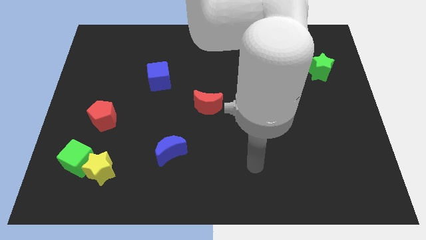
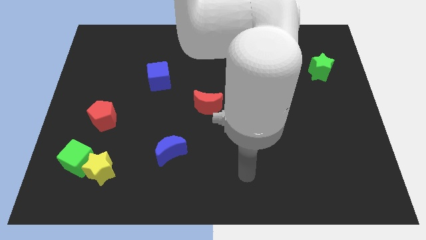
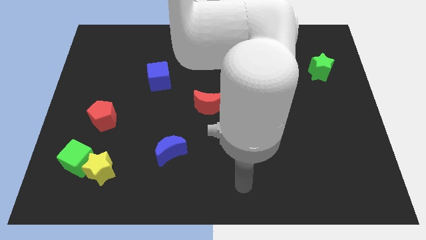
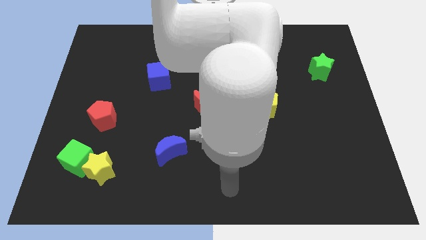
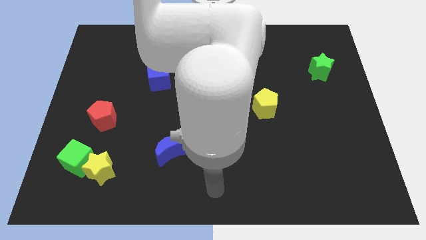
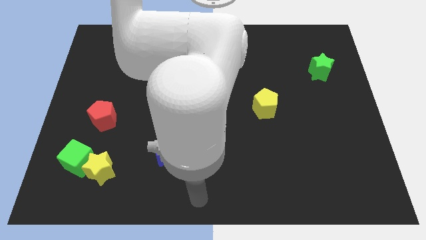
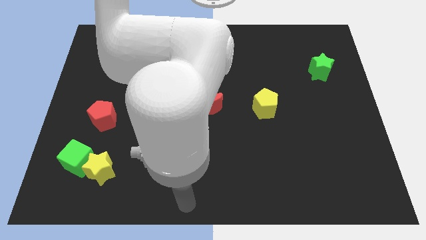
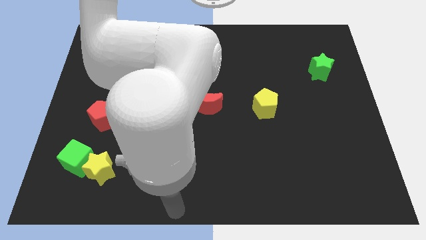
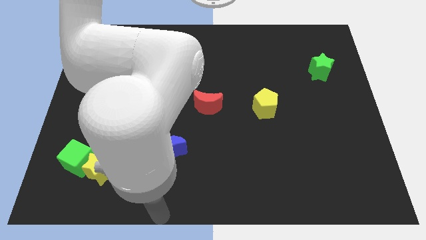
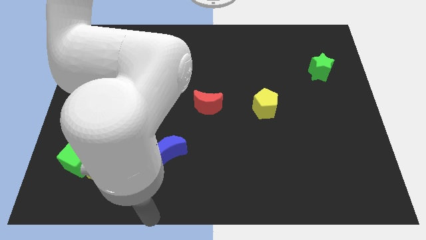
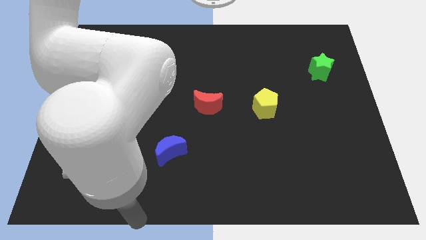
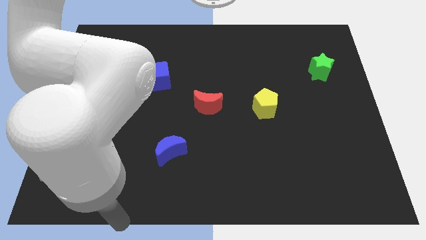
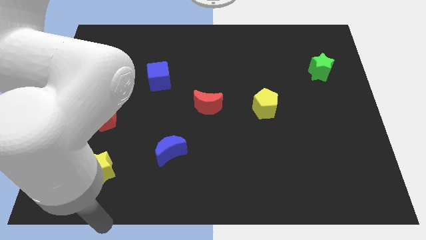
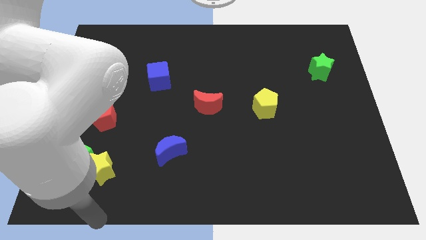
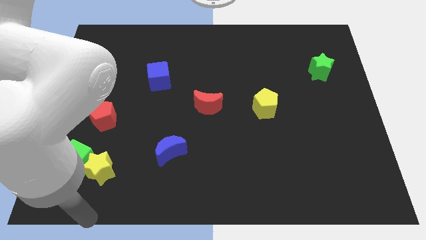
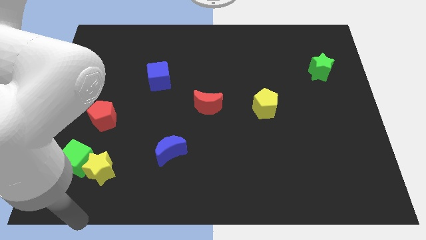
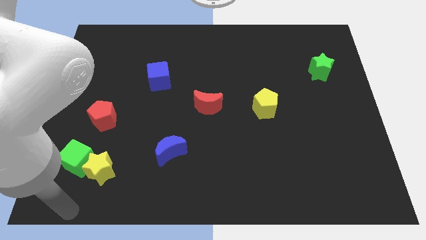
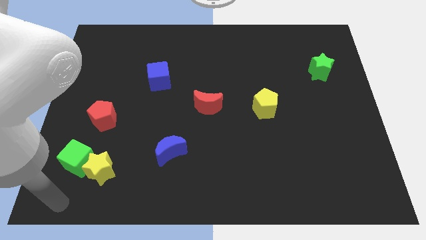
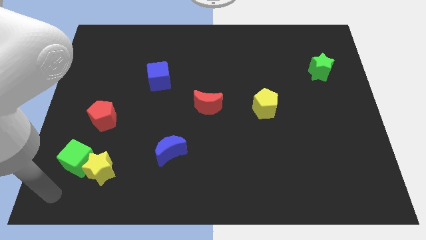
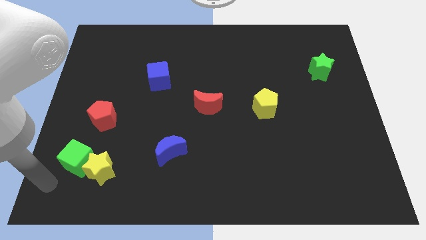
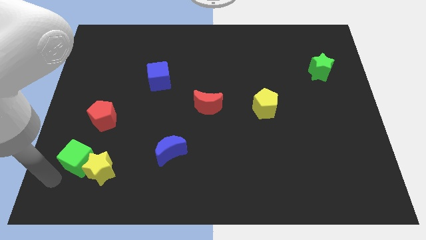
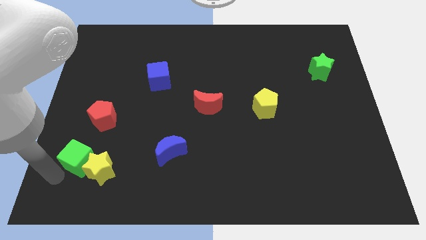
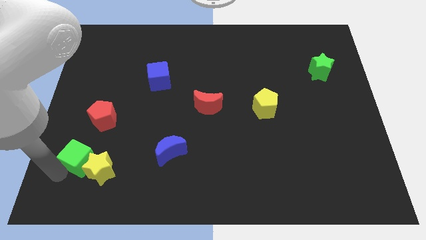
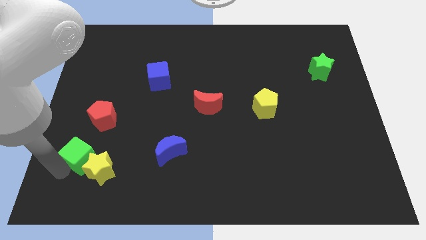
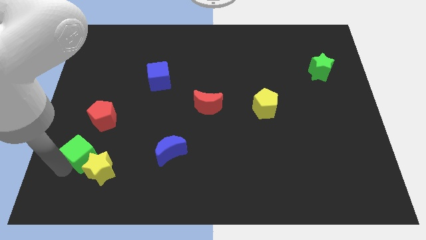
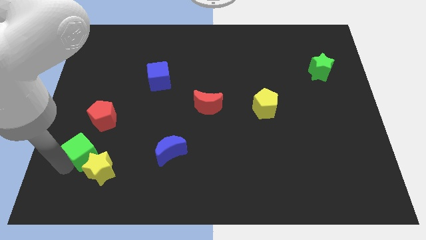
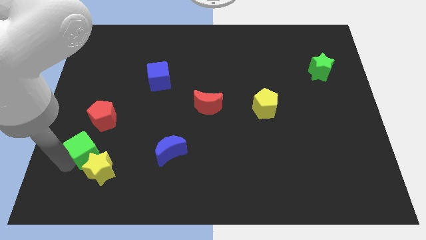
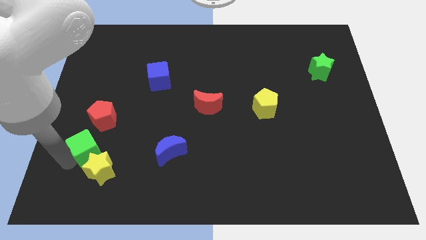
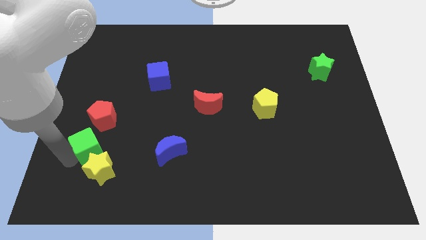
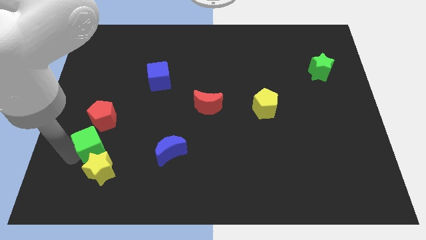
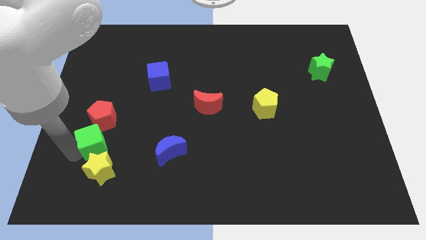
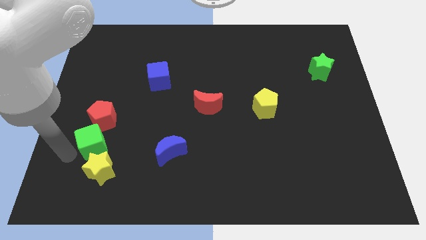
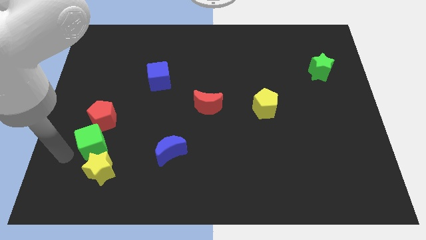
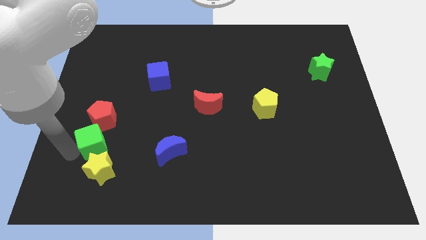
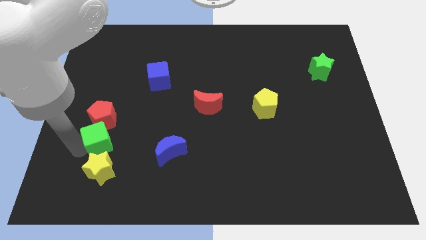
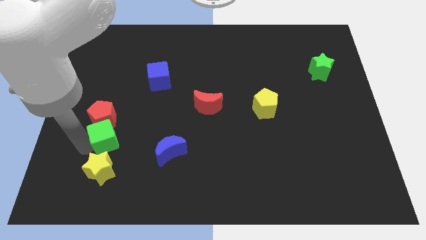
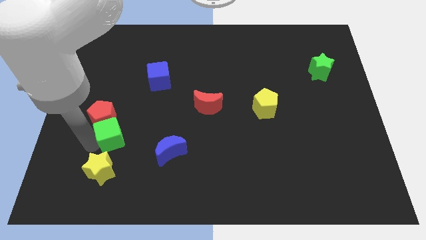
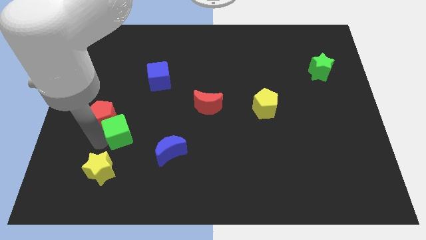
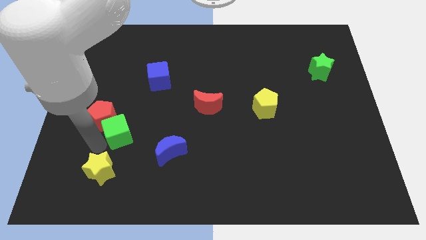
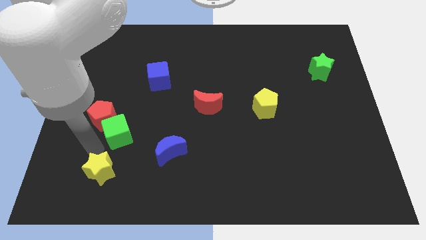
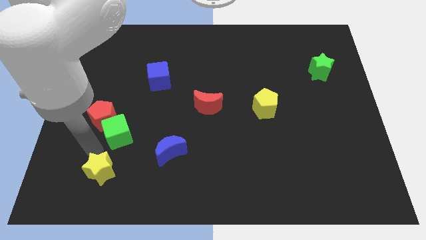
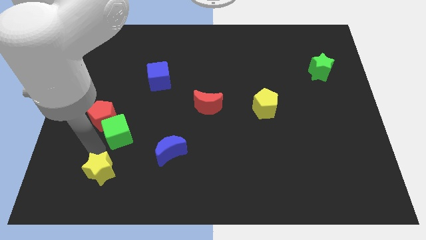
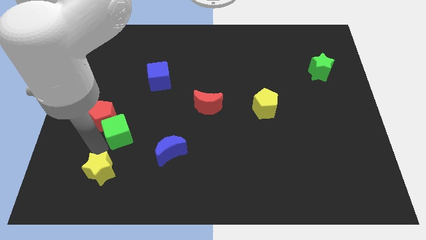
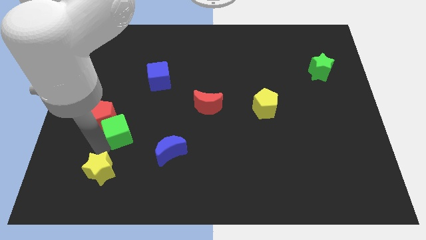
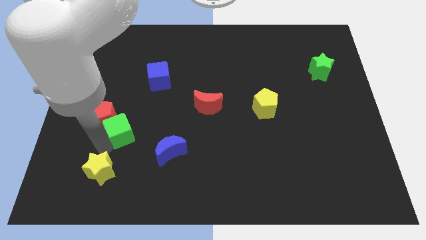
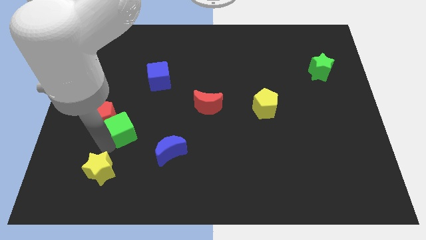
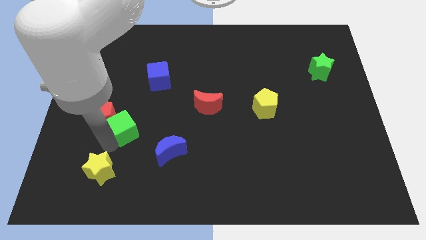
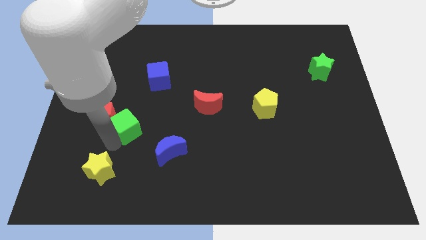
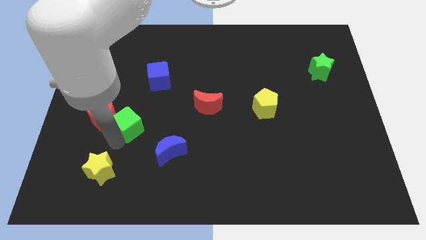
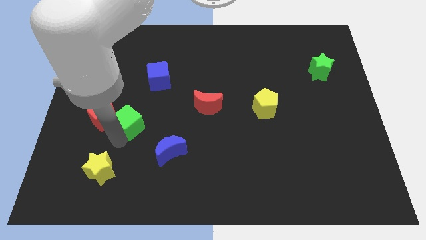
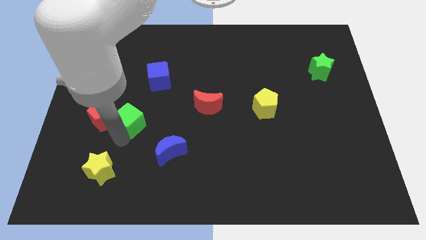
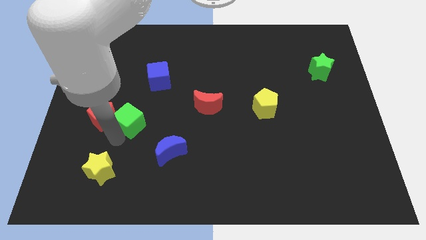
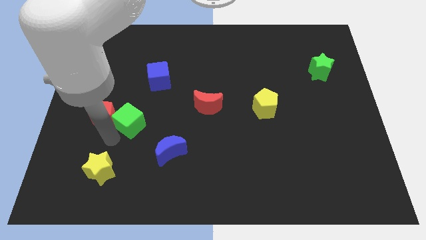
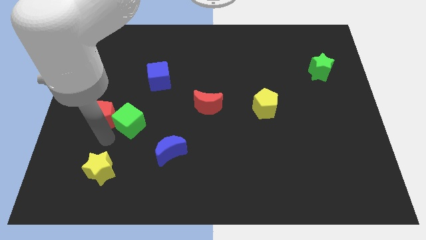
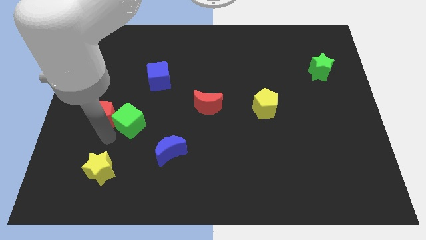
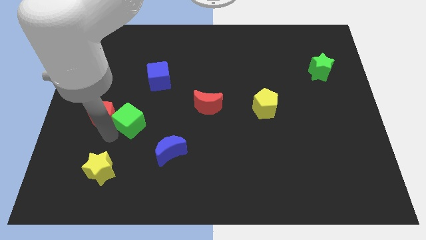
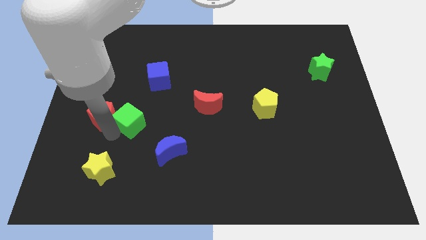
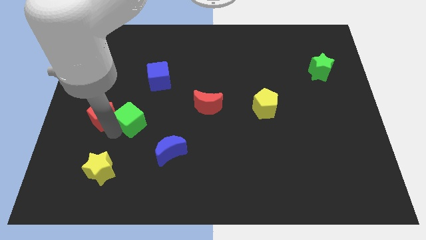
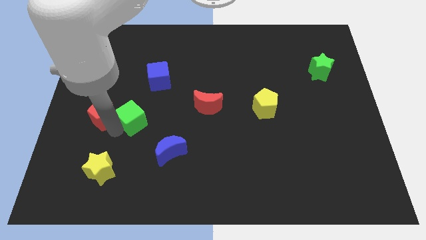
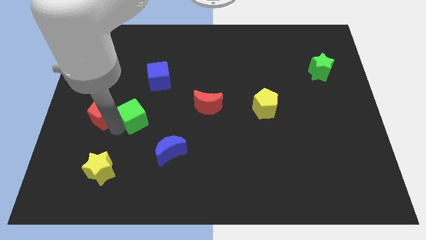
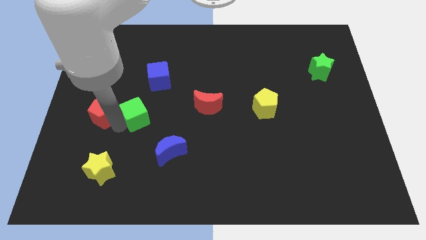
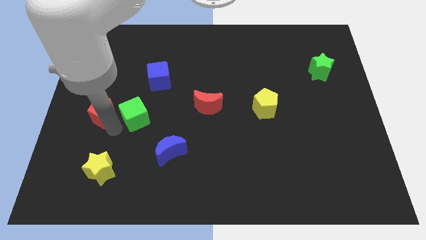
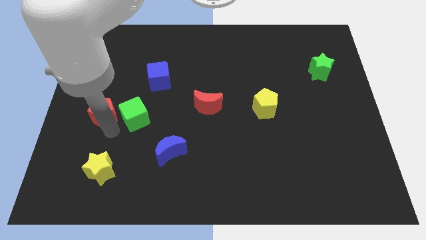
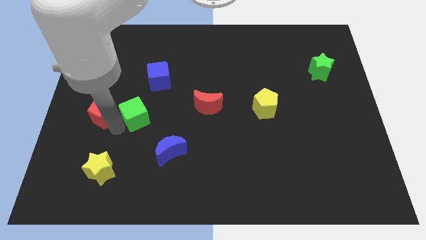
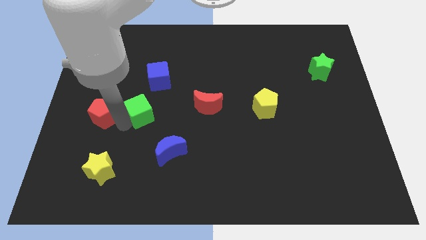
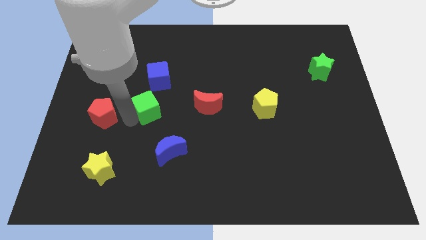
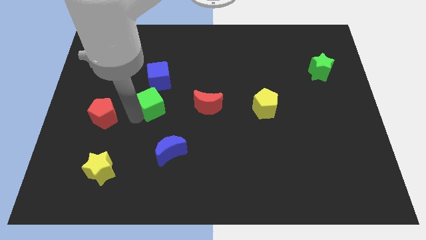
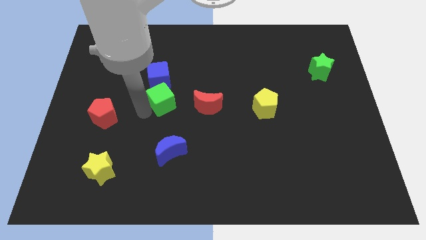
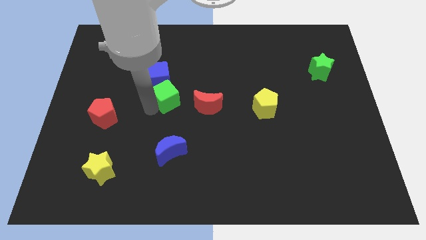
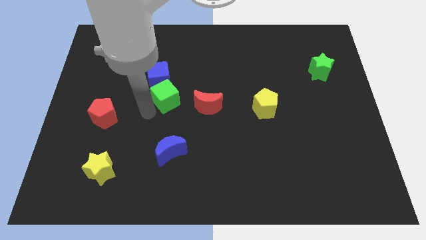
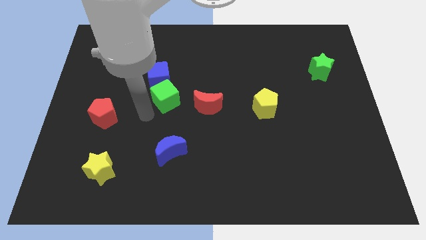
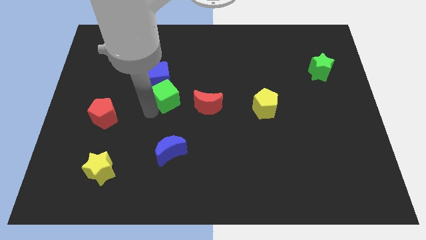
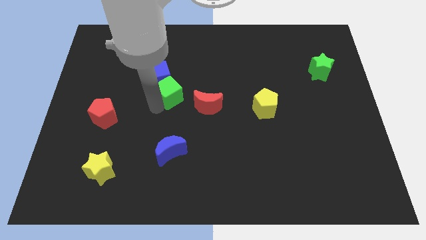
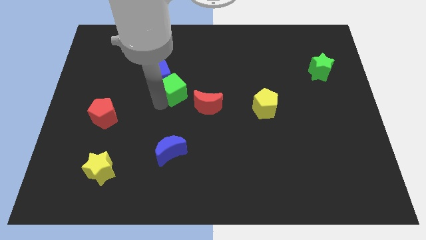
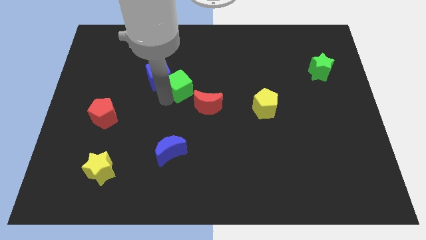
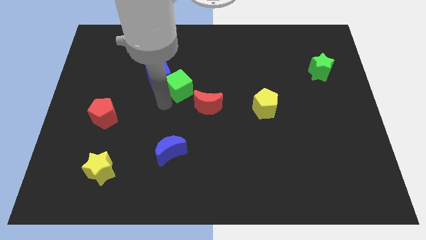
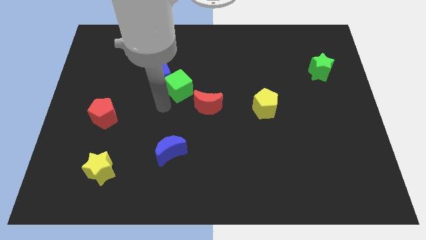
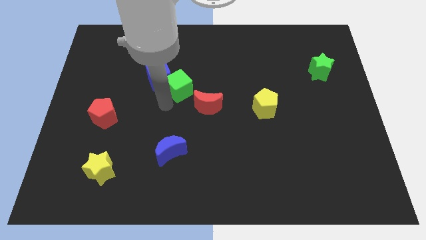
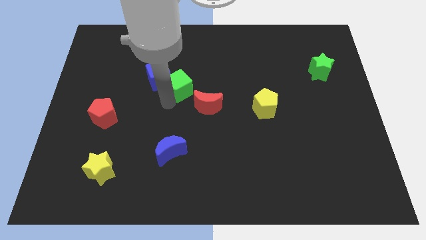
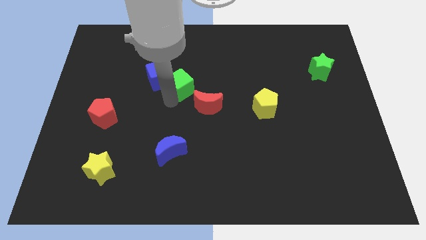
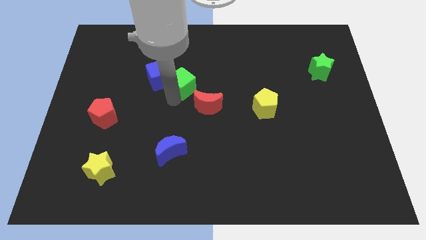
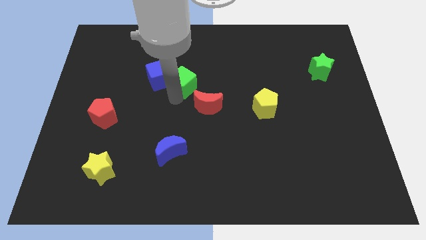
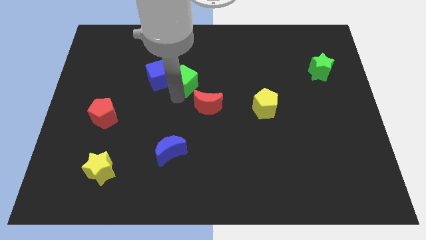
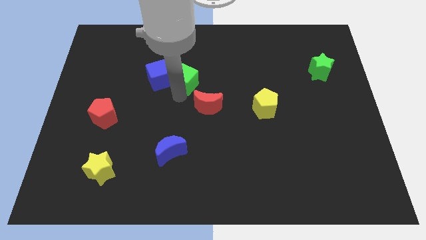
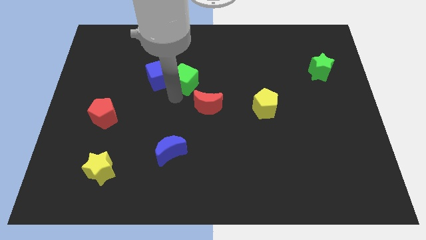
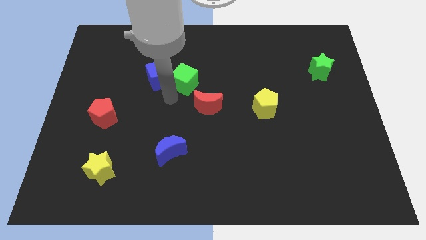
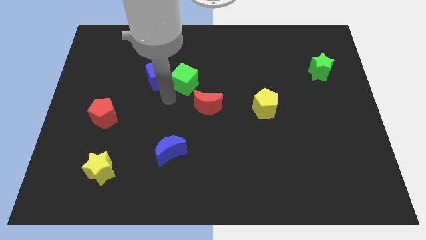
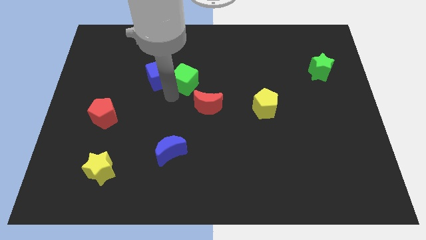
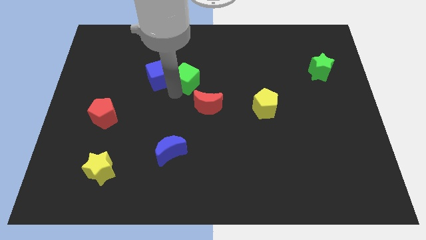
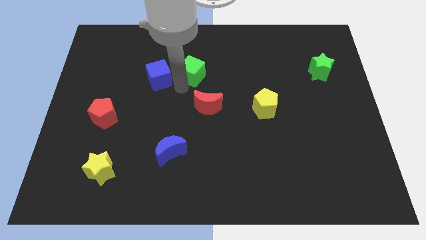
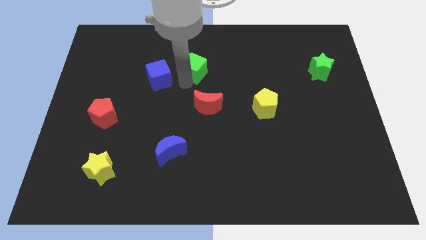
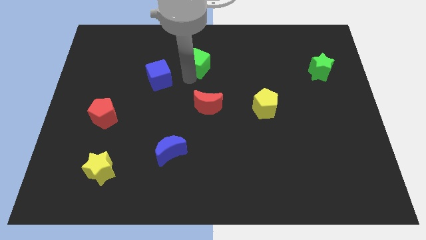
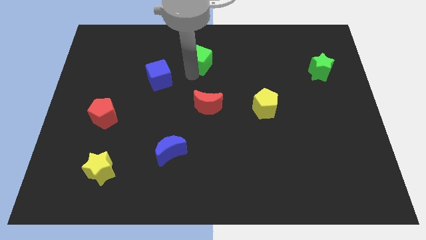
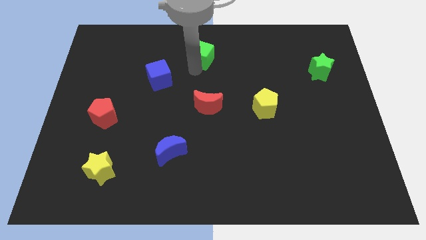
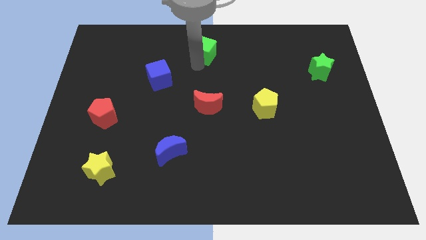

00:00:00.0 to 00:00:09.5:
push the green cube to the towards your base
